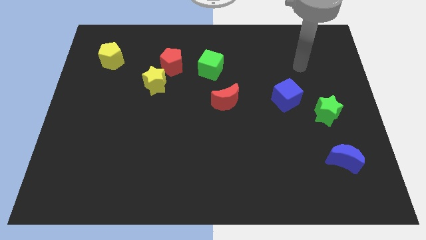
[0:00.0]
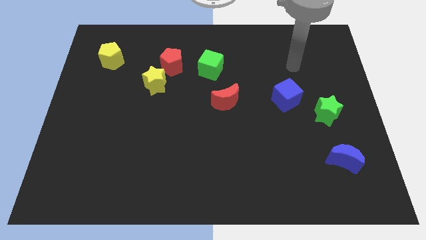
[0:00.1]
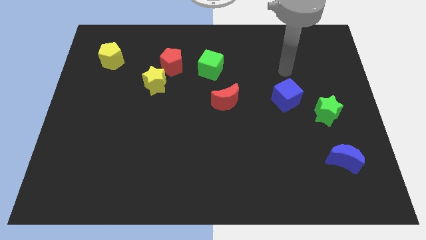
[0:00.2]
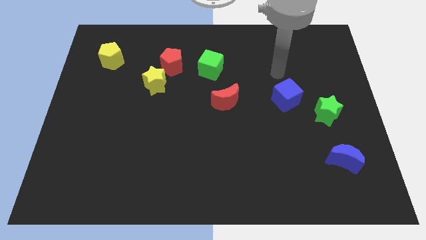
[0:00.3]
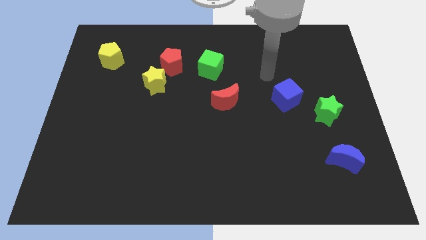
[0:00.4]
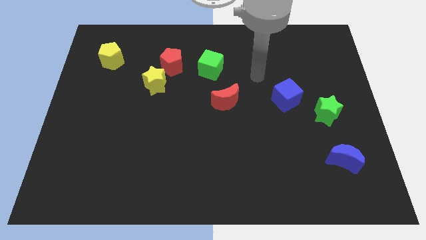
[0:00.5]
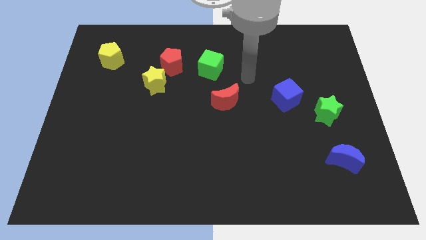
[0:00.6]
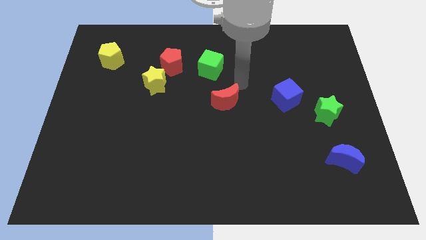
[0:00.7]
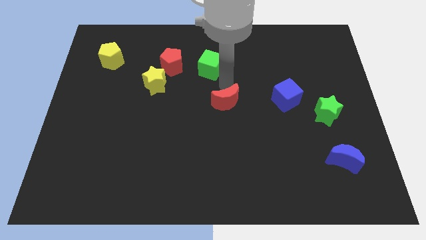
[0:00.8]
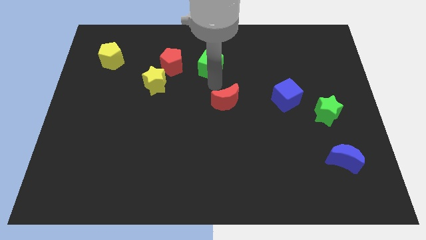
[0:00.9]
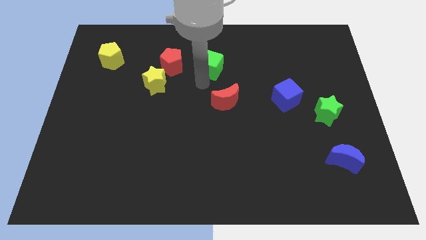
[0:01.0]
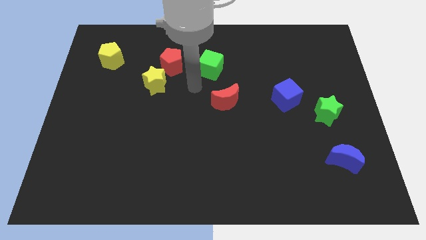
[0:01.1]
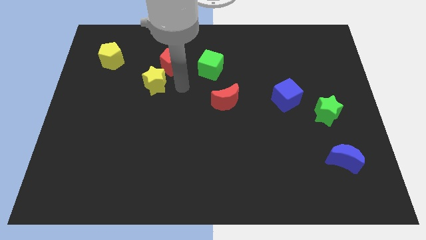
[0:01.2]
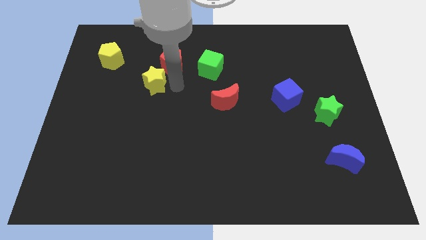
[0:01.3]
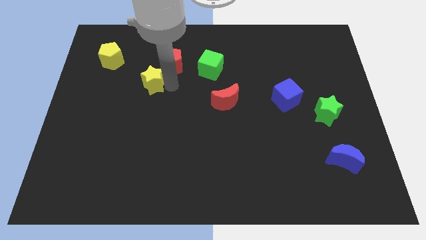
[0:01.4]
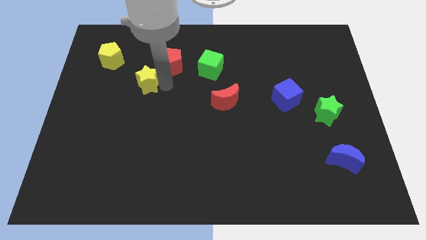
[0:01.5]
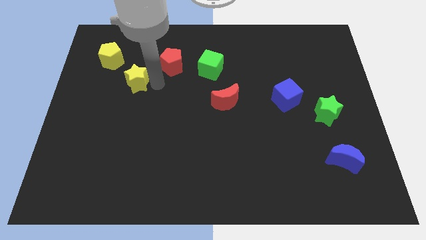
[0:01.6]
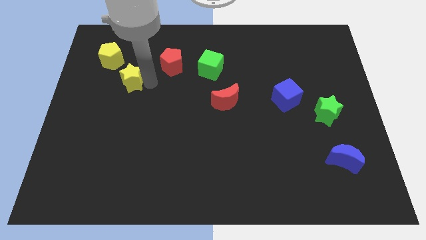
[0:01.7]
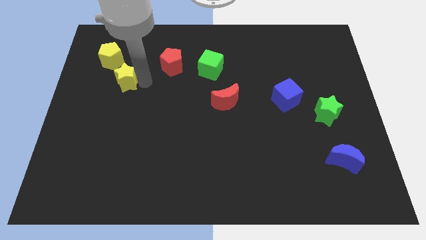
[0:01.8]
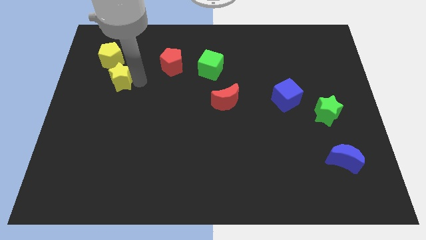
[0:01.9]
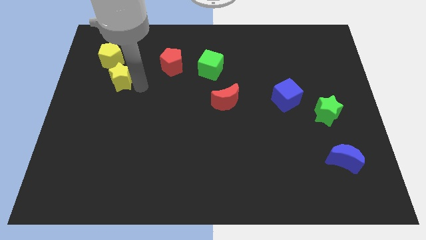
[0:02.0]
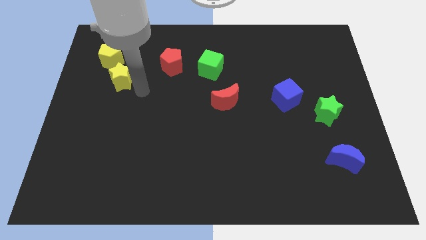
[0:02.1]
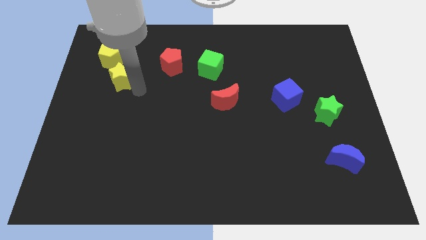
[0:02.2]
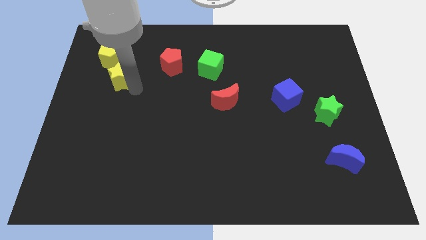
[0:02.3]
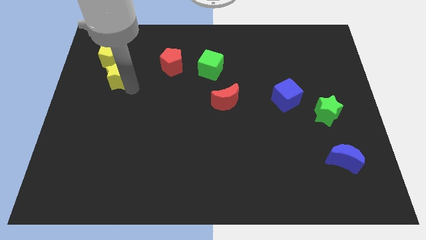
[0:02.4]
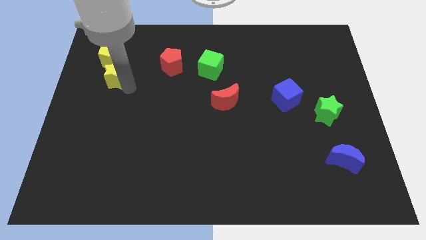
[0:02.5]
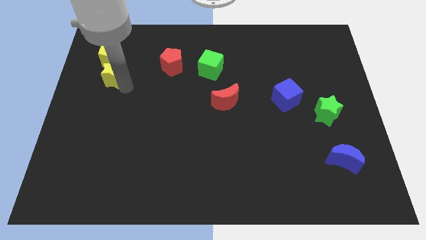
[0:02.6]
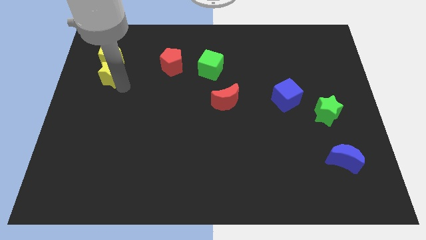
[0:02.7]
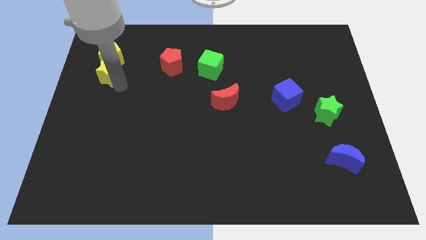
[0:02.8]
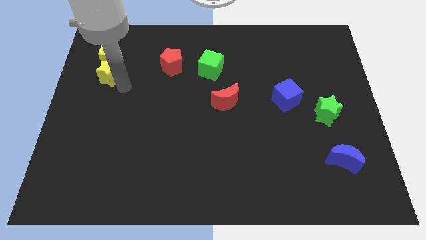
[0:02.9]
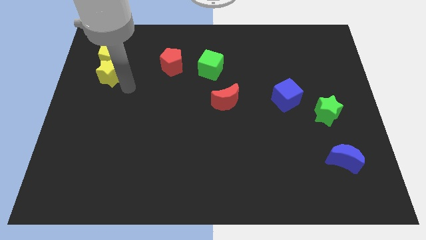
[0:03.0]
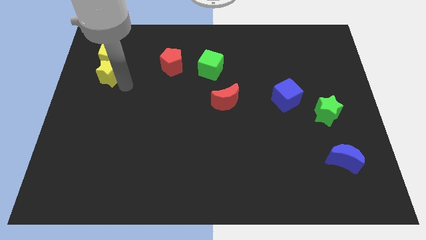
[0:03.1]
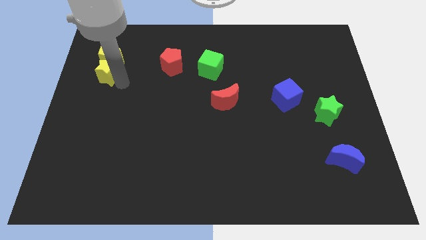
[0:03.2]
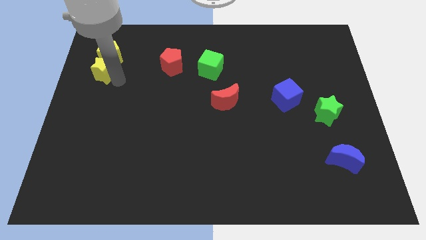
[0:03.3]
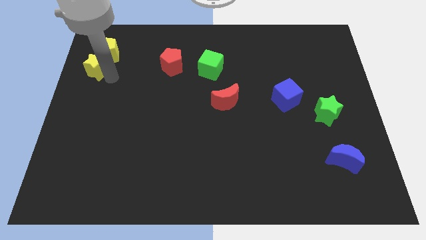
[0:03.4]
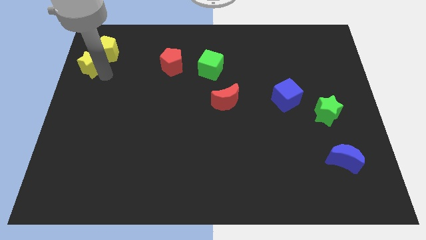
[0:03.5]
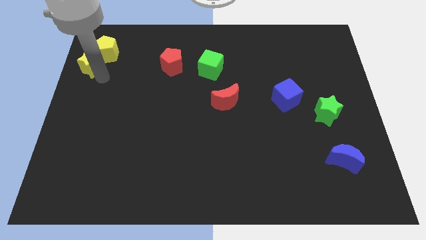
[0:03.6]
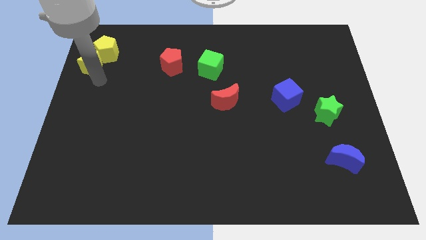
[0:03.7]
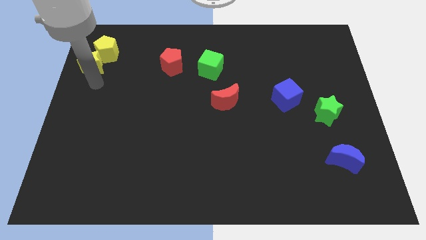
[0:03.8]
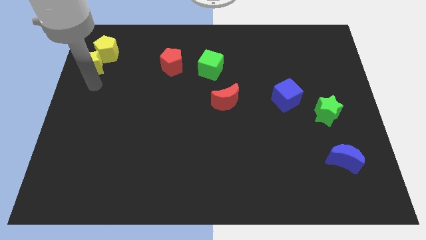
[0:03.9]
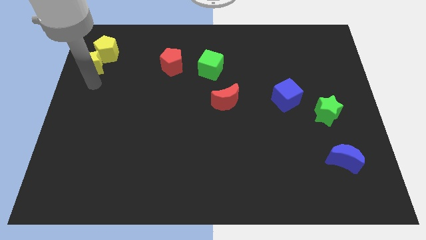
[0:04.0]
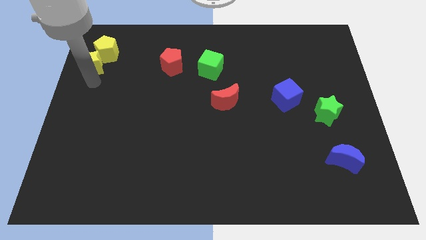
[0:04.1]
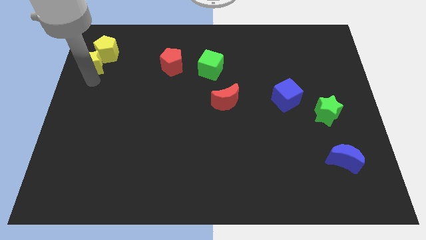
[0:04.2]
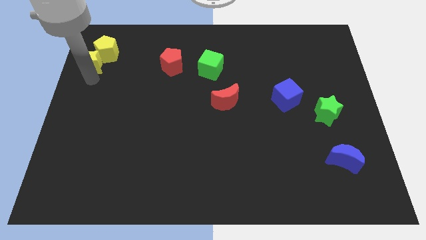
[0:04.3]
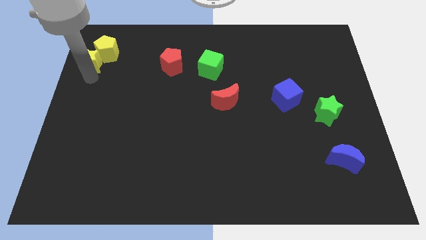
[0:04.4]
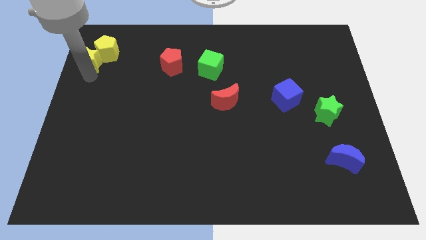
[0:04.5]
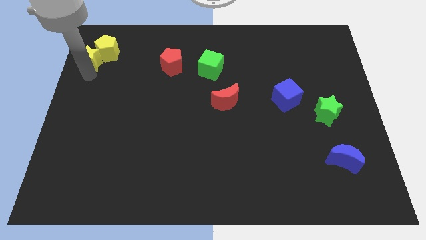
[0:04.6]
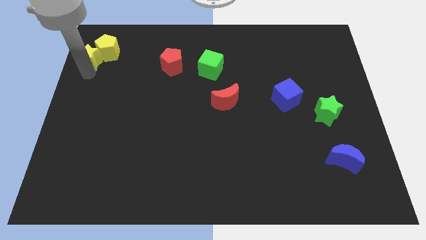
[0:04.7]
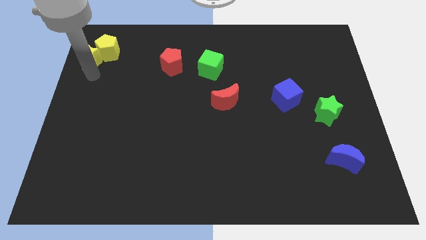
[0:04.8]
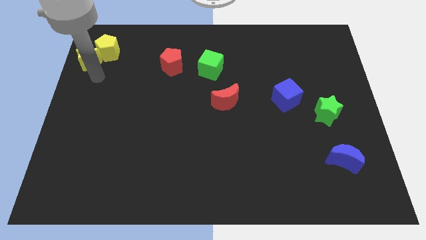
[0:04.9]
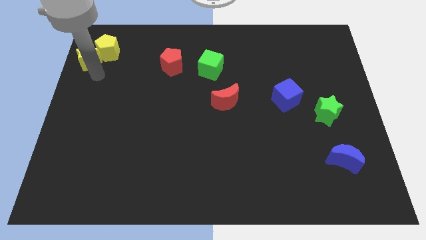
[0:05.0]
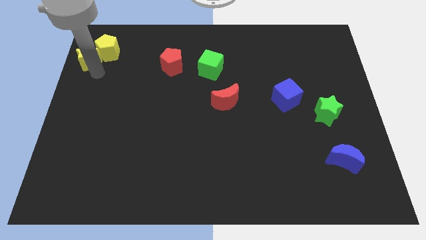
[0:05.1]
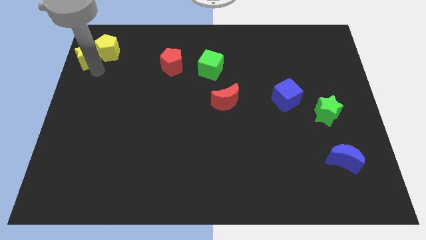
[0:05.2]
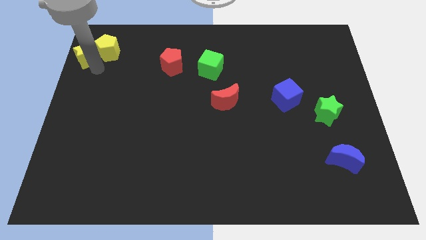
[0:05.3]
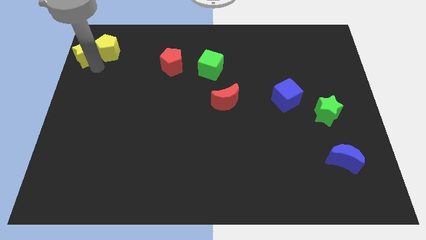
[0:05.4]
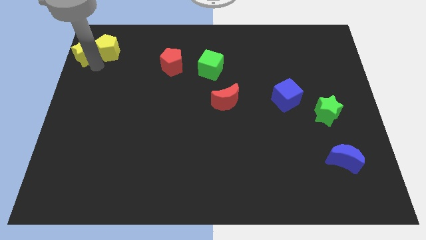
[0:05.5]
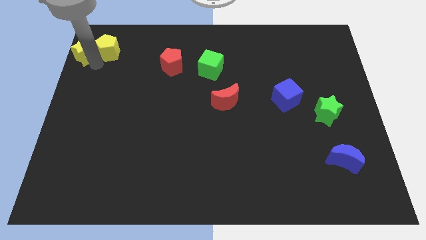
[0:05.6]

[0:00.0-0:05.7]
move the yellow star to the top left
